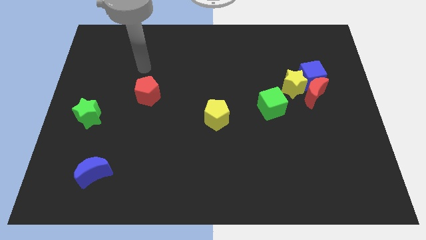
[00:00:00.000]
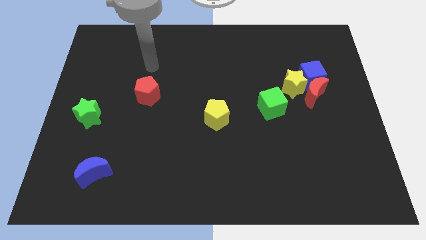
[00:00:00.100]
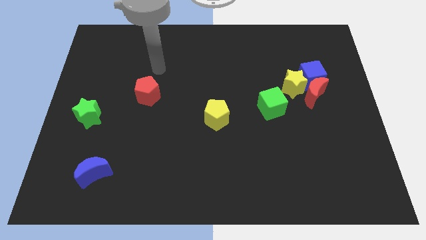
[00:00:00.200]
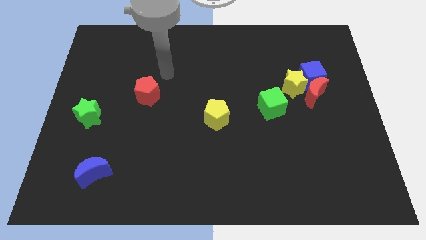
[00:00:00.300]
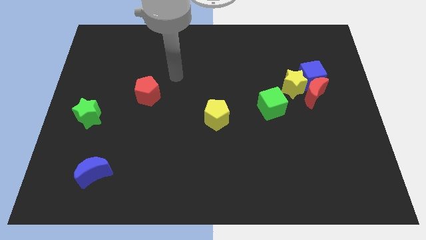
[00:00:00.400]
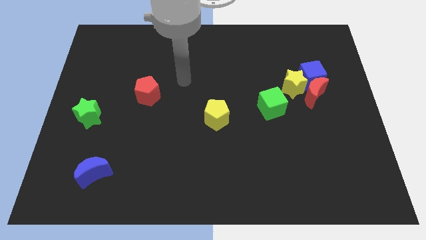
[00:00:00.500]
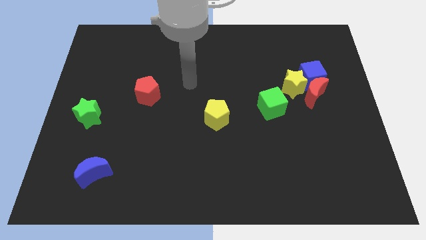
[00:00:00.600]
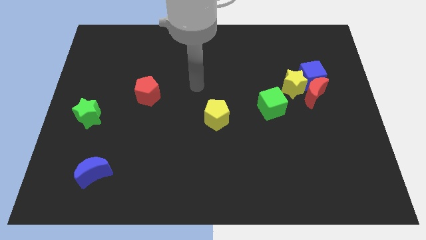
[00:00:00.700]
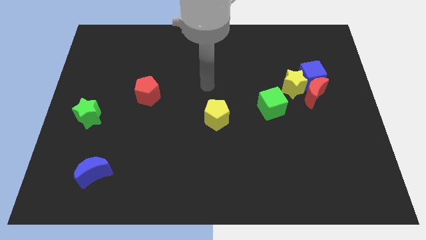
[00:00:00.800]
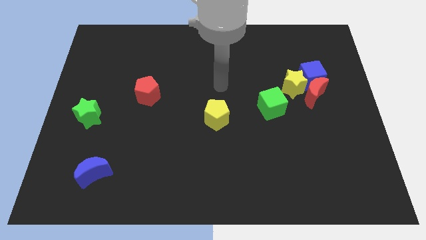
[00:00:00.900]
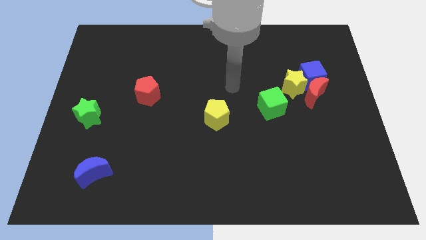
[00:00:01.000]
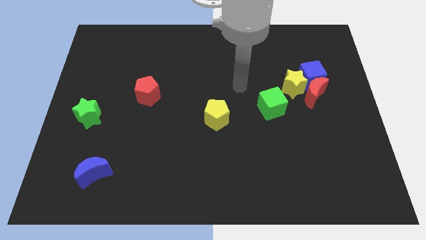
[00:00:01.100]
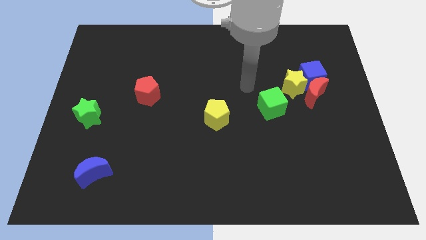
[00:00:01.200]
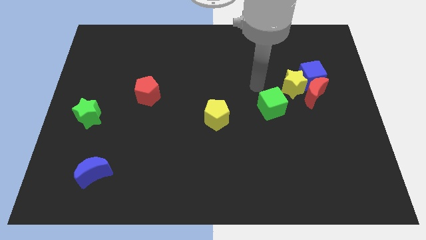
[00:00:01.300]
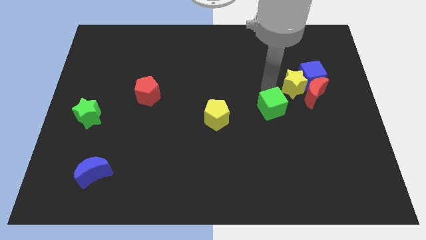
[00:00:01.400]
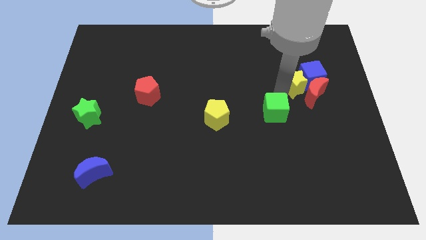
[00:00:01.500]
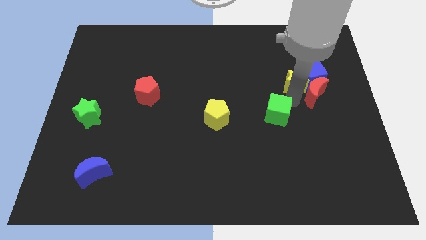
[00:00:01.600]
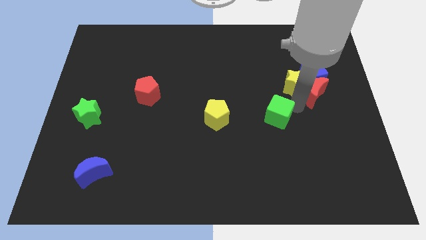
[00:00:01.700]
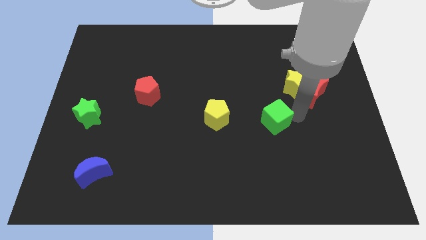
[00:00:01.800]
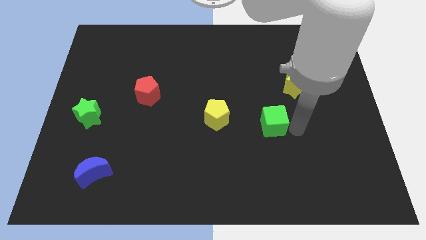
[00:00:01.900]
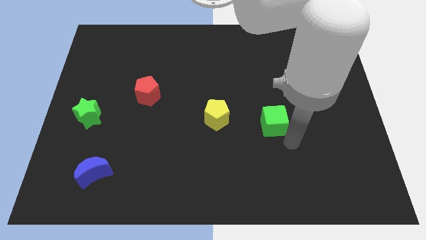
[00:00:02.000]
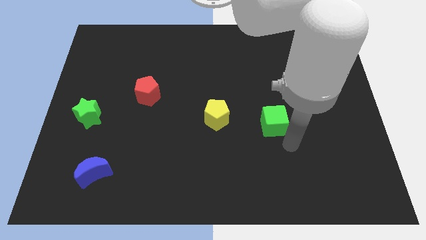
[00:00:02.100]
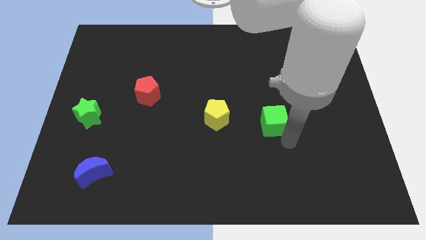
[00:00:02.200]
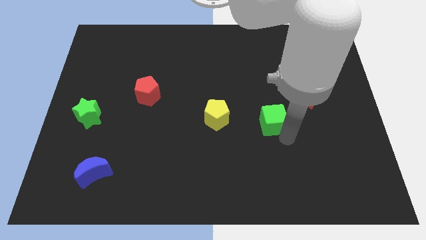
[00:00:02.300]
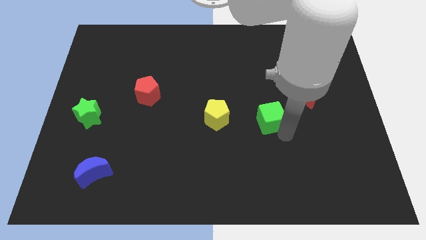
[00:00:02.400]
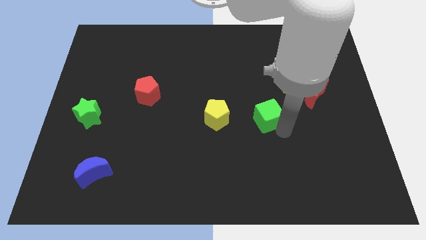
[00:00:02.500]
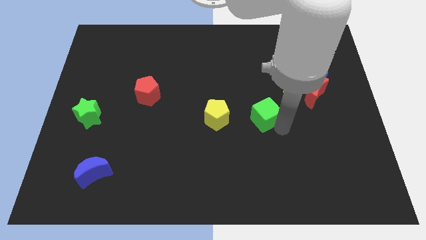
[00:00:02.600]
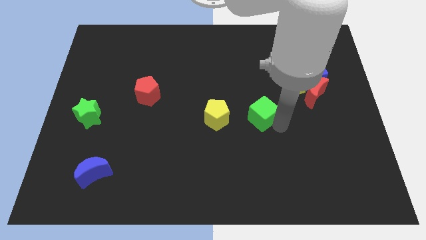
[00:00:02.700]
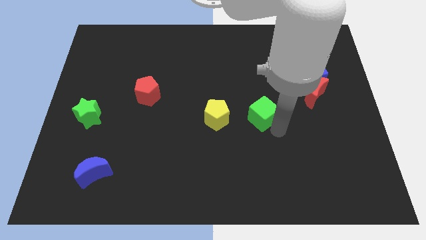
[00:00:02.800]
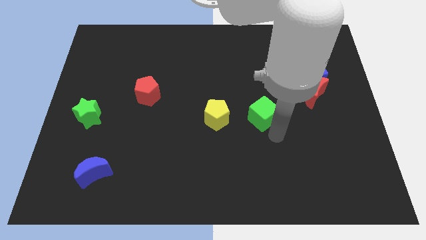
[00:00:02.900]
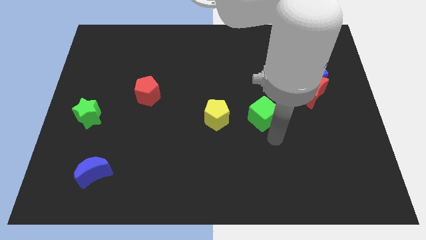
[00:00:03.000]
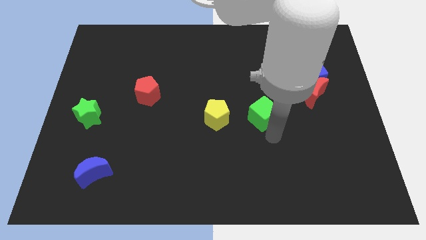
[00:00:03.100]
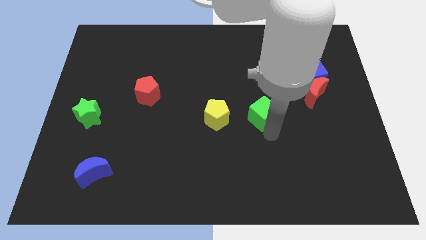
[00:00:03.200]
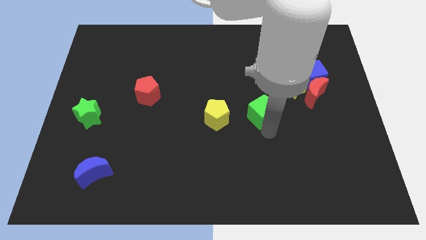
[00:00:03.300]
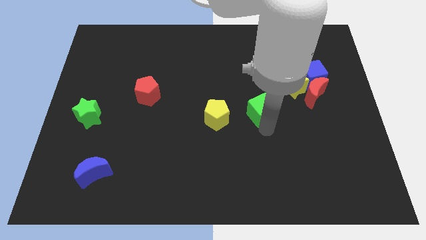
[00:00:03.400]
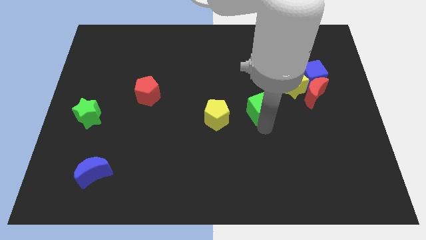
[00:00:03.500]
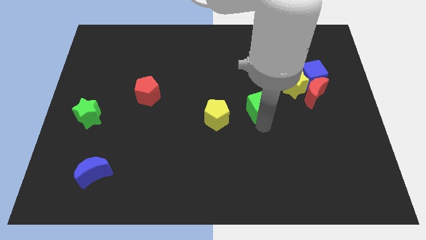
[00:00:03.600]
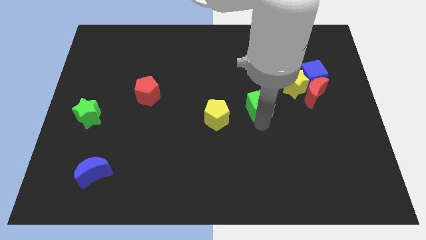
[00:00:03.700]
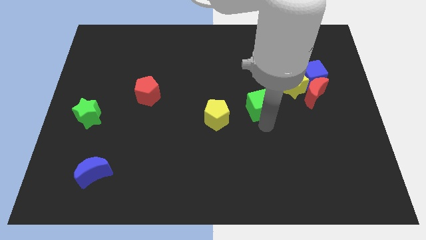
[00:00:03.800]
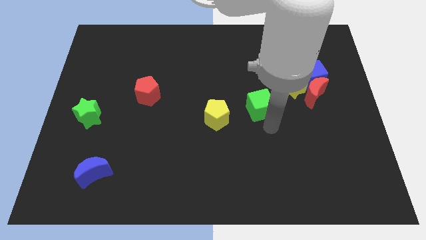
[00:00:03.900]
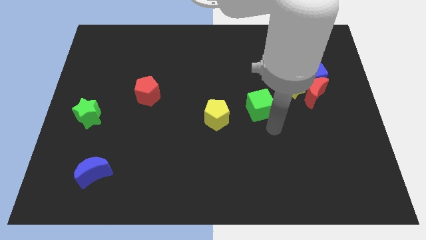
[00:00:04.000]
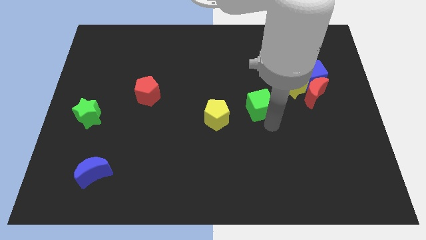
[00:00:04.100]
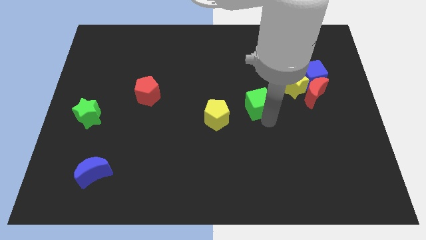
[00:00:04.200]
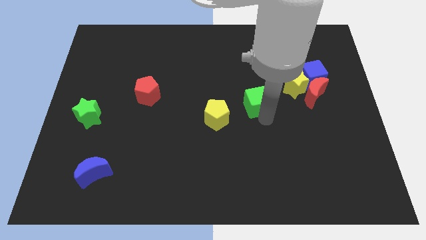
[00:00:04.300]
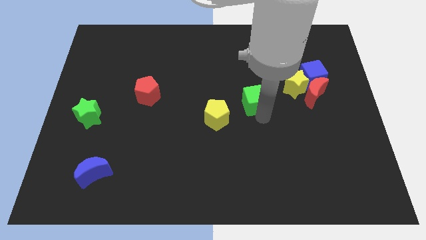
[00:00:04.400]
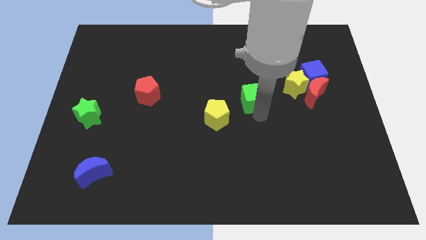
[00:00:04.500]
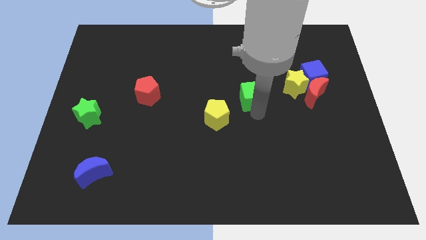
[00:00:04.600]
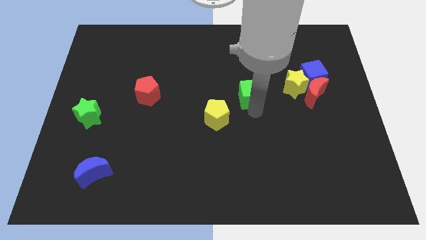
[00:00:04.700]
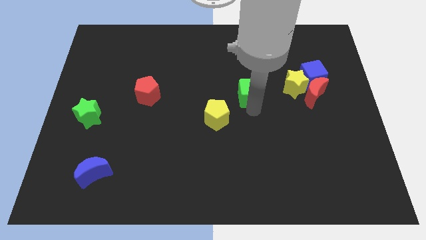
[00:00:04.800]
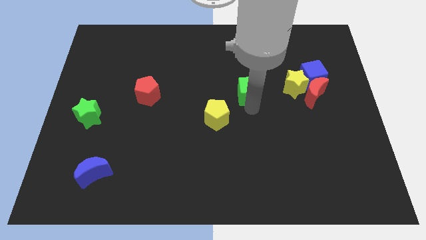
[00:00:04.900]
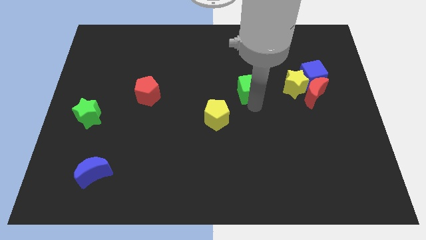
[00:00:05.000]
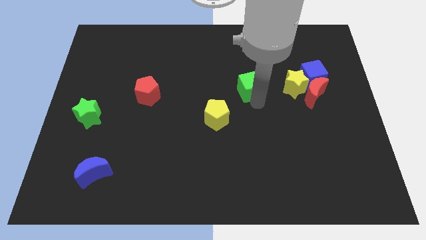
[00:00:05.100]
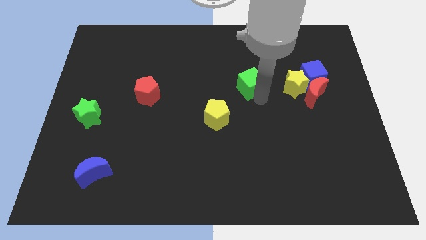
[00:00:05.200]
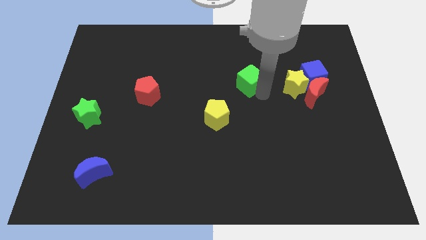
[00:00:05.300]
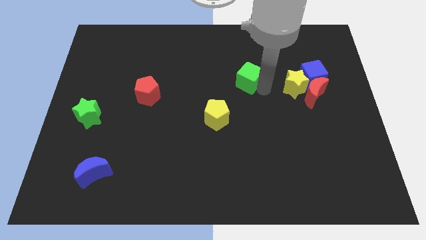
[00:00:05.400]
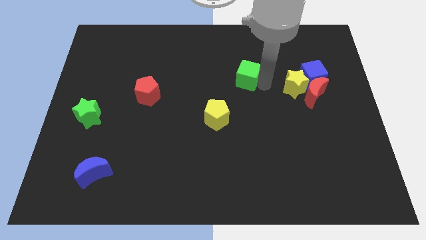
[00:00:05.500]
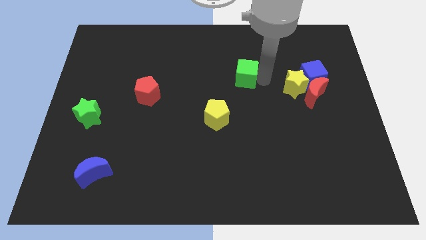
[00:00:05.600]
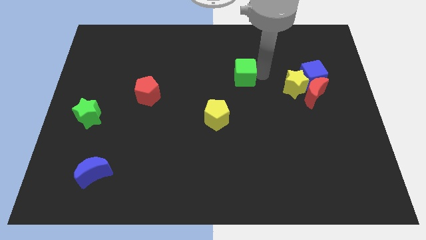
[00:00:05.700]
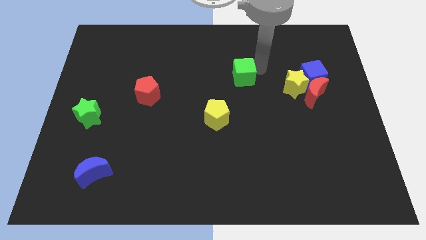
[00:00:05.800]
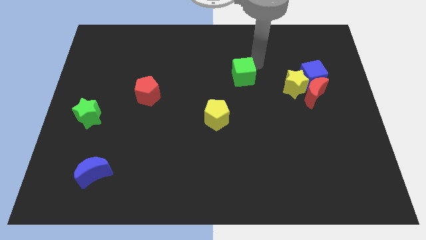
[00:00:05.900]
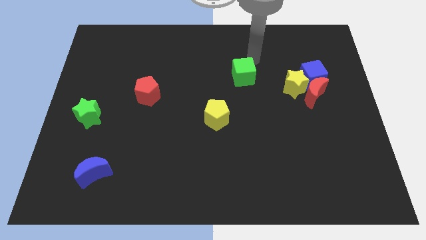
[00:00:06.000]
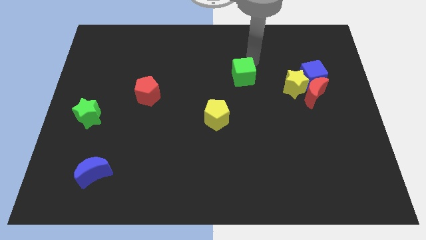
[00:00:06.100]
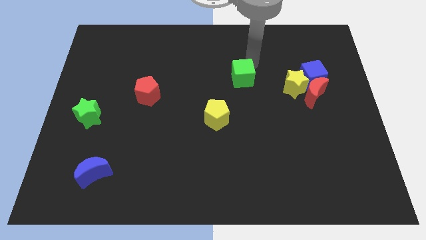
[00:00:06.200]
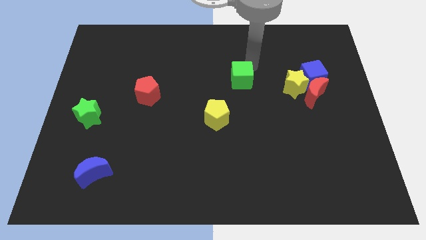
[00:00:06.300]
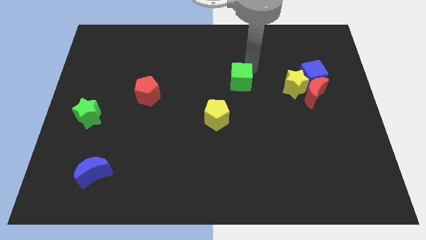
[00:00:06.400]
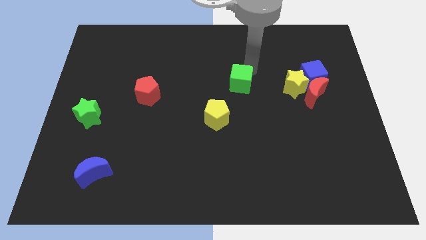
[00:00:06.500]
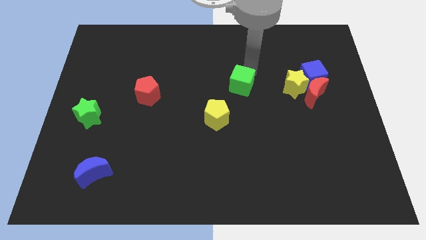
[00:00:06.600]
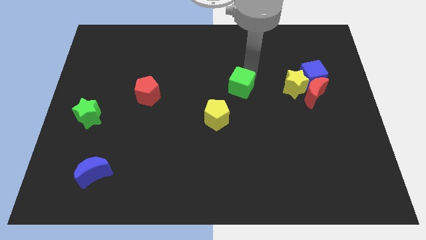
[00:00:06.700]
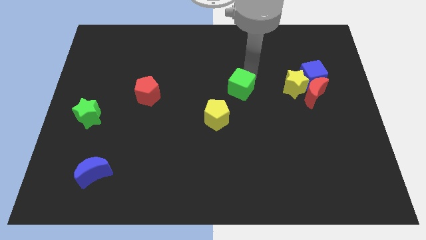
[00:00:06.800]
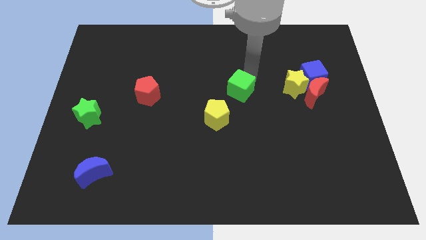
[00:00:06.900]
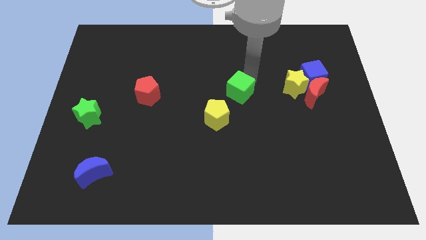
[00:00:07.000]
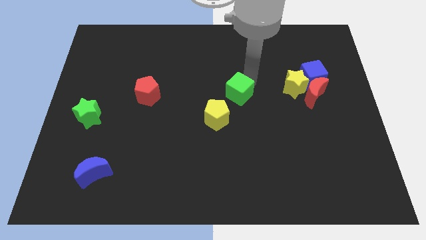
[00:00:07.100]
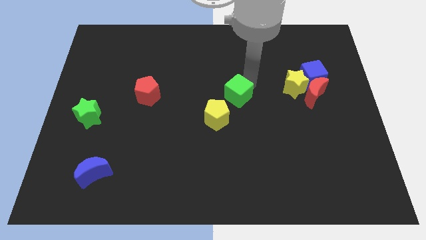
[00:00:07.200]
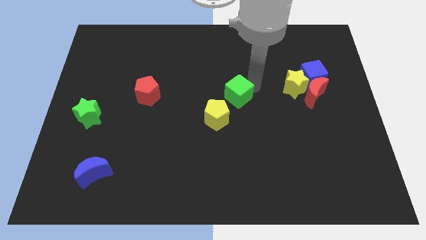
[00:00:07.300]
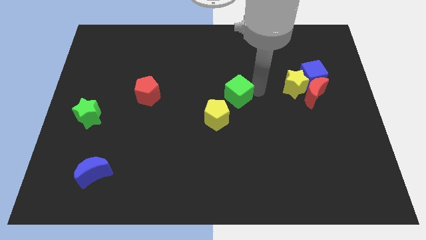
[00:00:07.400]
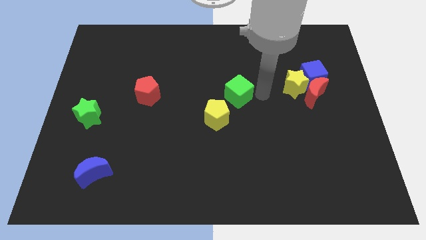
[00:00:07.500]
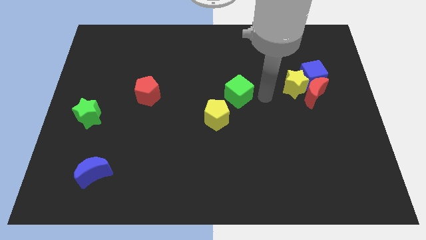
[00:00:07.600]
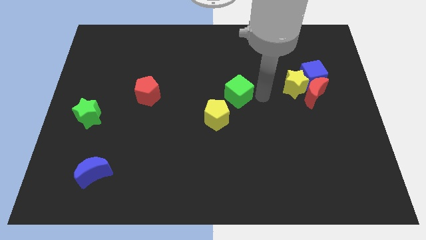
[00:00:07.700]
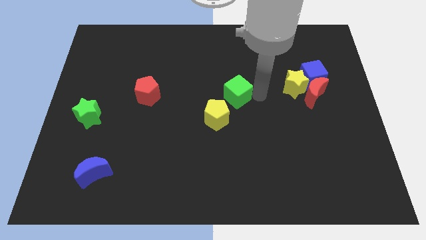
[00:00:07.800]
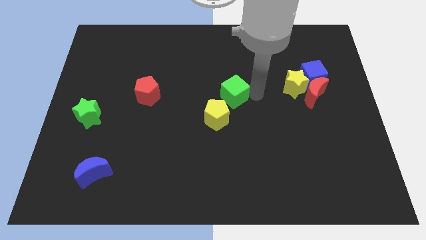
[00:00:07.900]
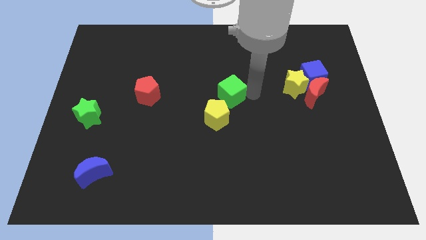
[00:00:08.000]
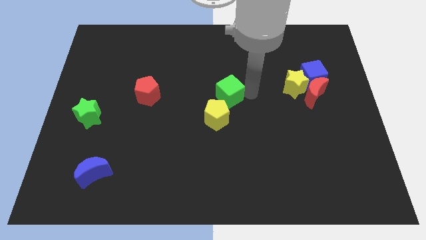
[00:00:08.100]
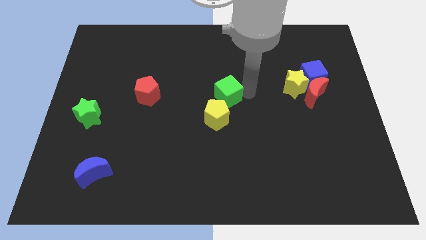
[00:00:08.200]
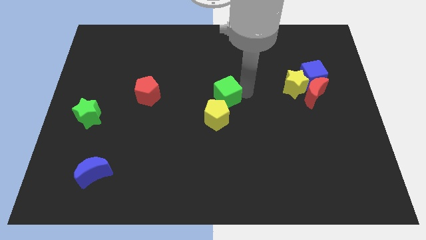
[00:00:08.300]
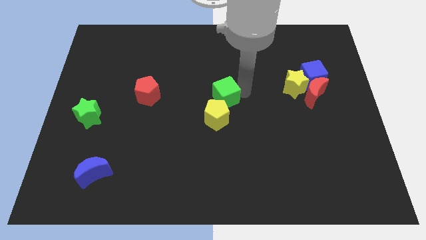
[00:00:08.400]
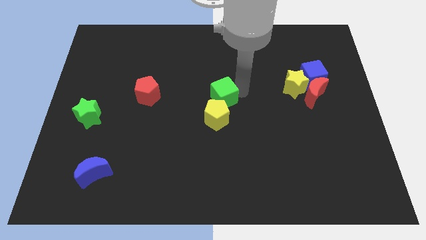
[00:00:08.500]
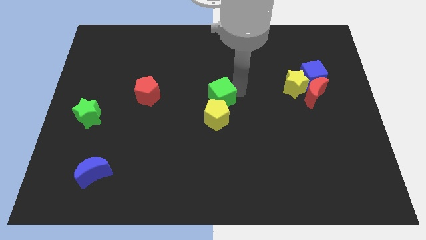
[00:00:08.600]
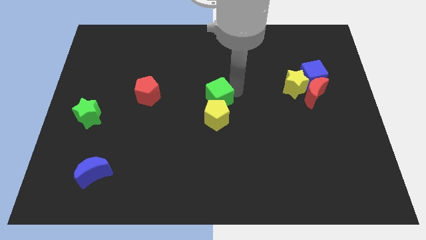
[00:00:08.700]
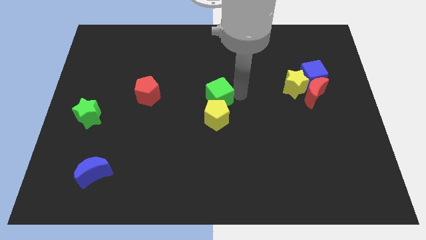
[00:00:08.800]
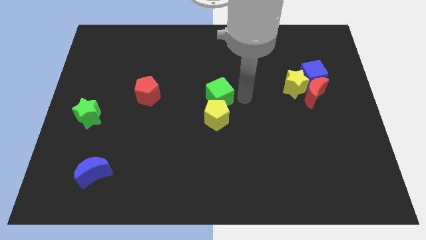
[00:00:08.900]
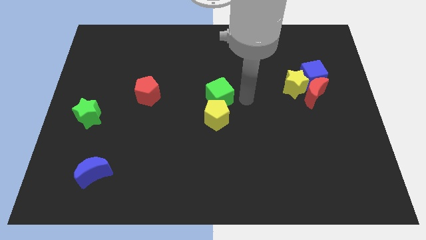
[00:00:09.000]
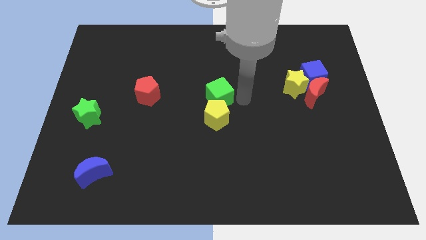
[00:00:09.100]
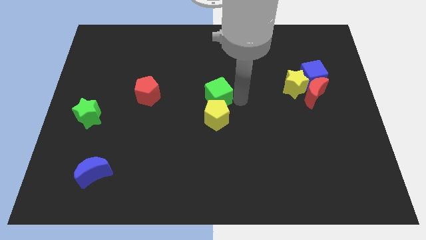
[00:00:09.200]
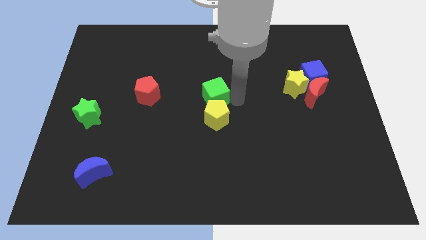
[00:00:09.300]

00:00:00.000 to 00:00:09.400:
push the green cube to the right side of the red pentagon
